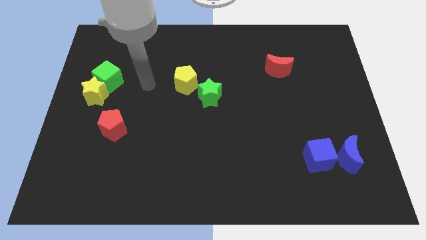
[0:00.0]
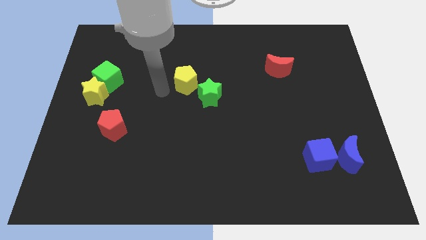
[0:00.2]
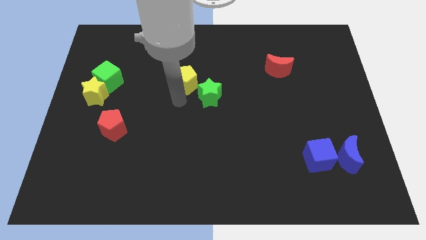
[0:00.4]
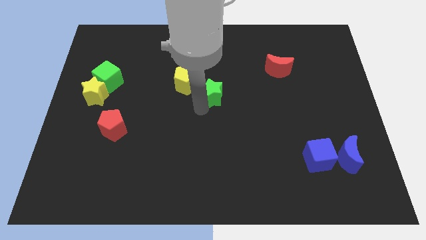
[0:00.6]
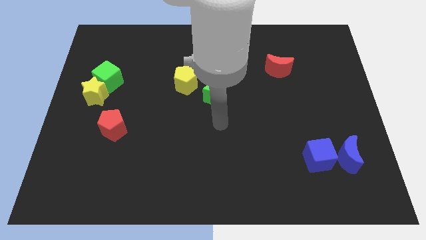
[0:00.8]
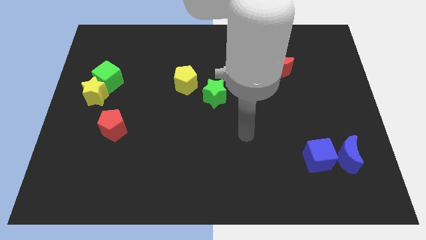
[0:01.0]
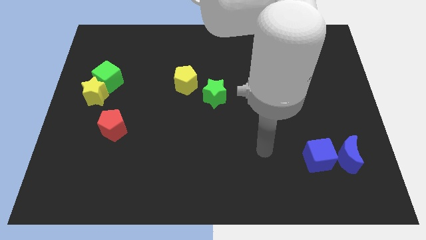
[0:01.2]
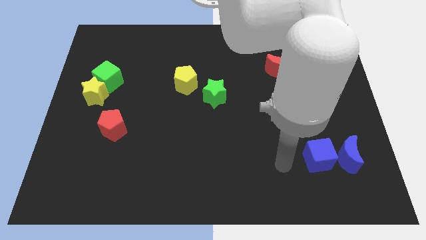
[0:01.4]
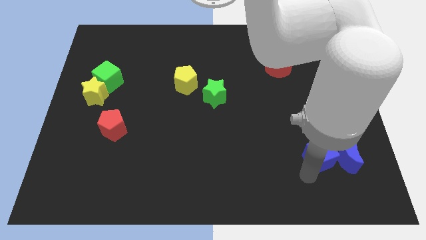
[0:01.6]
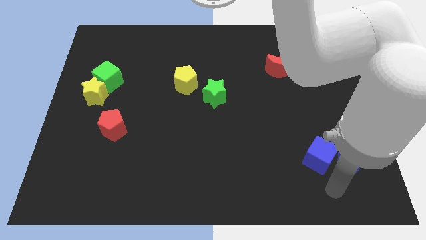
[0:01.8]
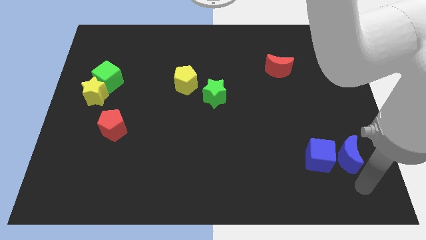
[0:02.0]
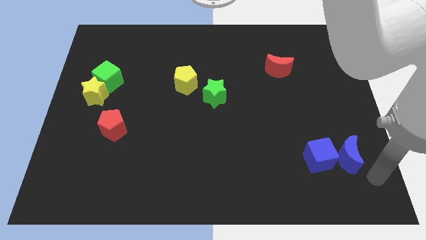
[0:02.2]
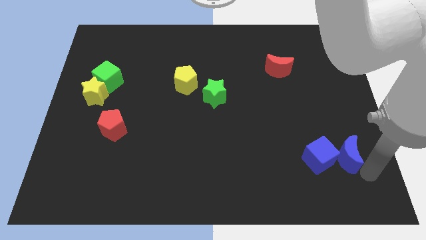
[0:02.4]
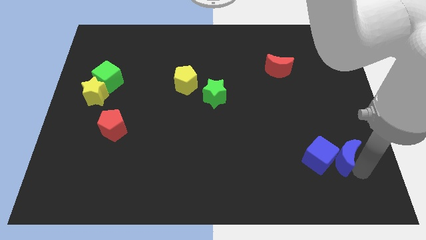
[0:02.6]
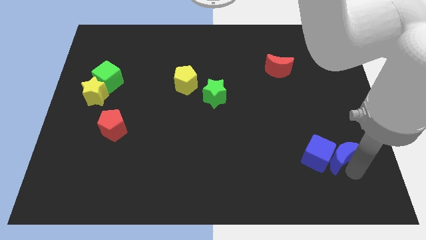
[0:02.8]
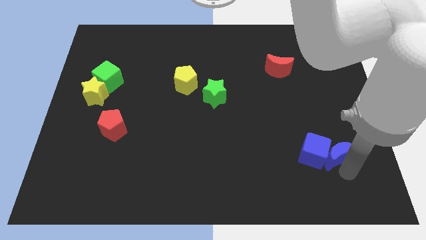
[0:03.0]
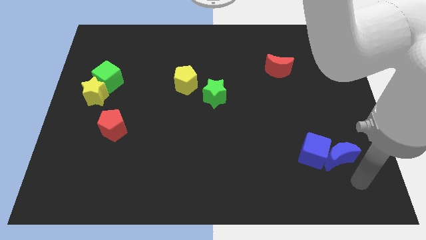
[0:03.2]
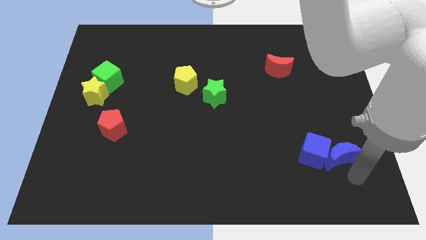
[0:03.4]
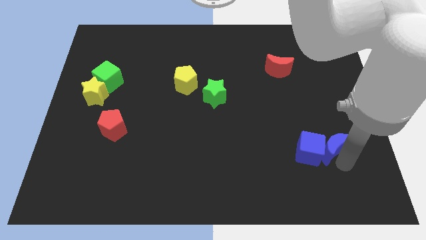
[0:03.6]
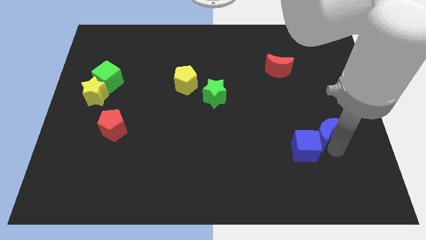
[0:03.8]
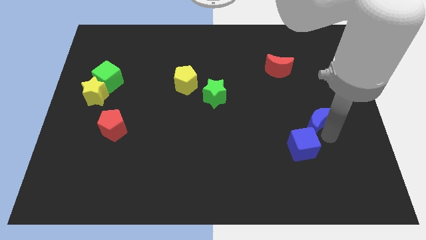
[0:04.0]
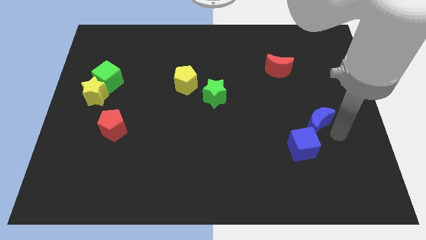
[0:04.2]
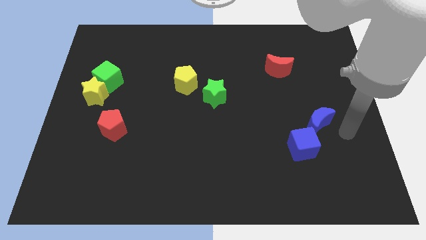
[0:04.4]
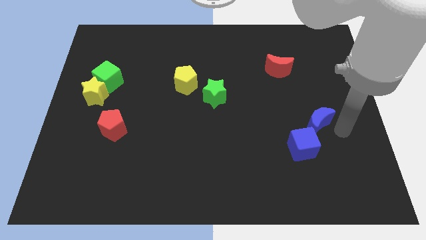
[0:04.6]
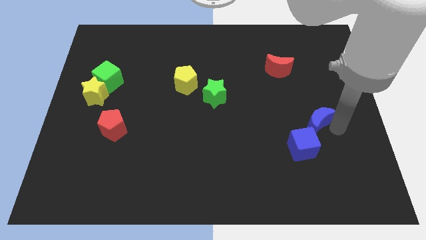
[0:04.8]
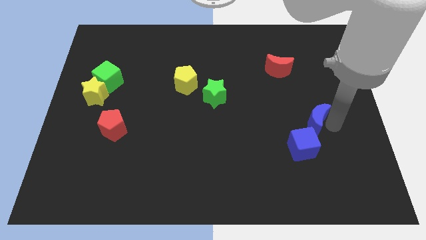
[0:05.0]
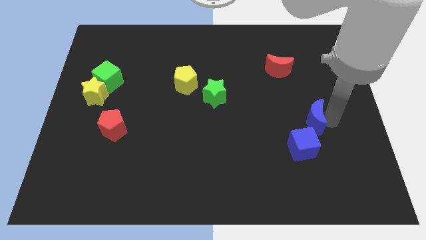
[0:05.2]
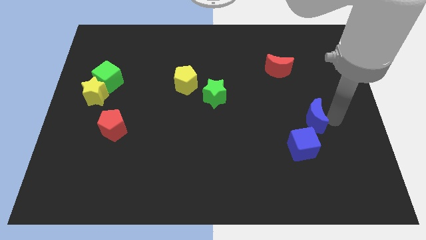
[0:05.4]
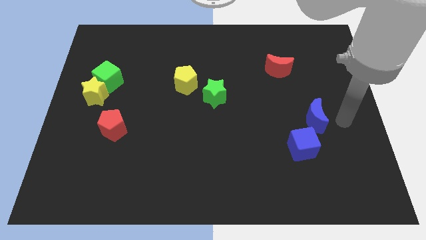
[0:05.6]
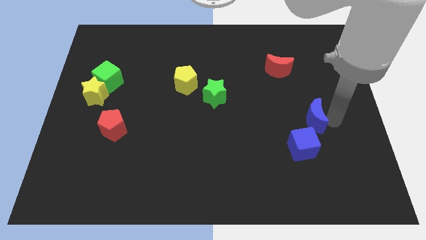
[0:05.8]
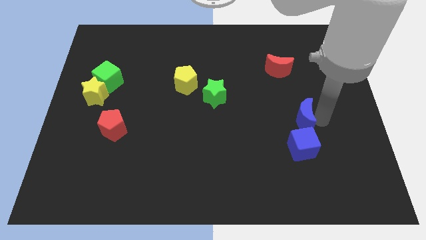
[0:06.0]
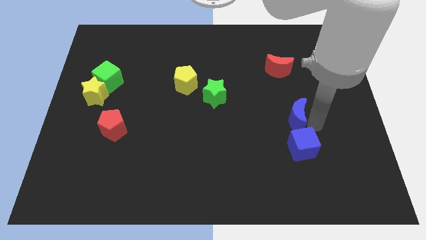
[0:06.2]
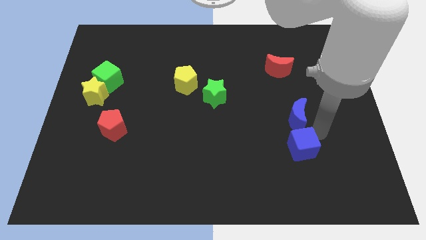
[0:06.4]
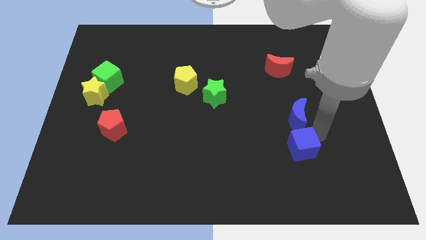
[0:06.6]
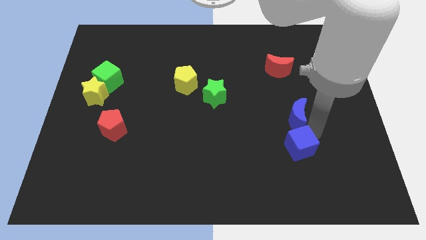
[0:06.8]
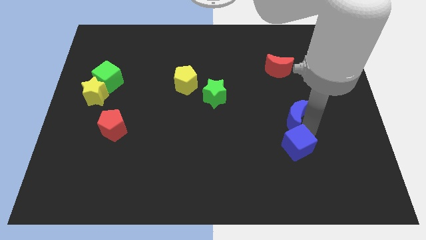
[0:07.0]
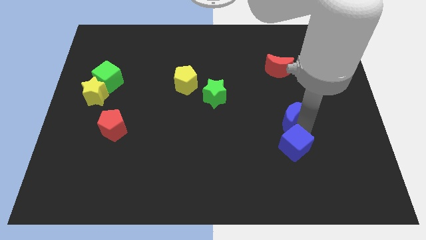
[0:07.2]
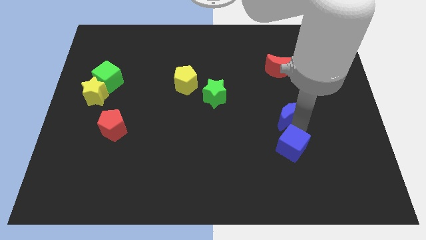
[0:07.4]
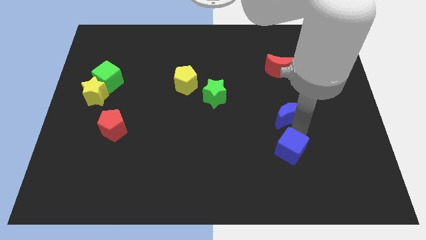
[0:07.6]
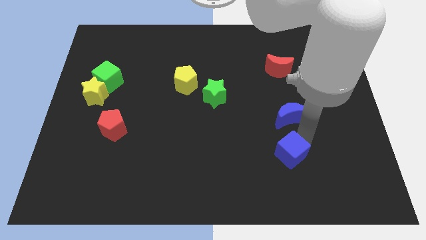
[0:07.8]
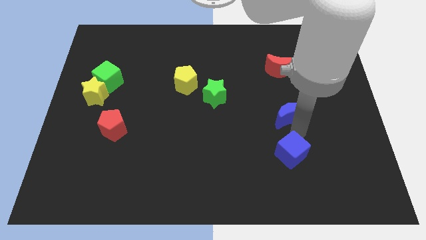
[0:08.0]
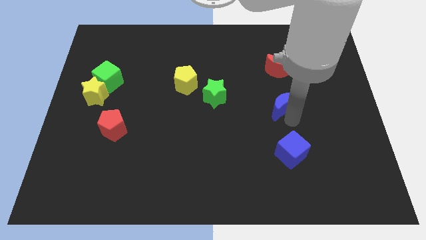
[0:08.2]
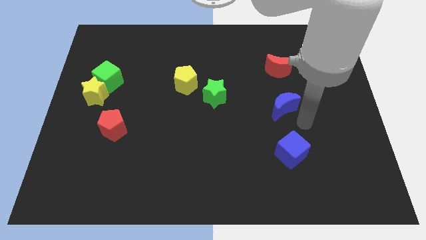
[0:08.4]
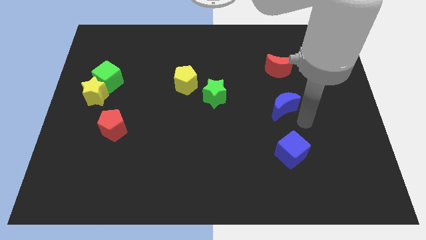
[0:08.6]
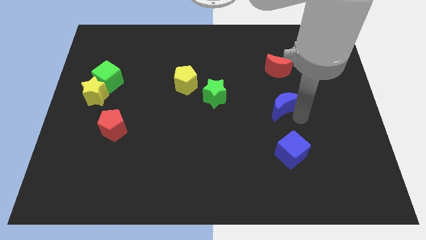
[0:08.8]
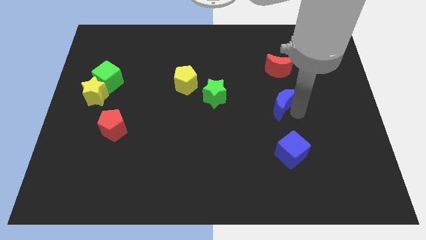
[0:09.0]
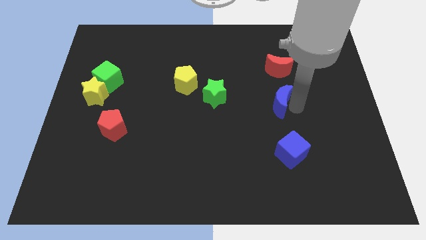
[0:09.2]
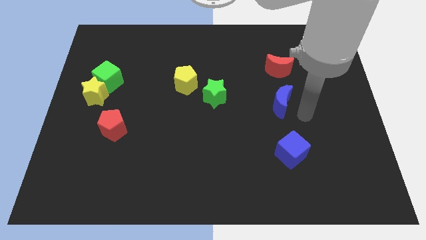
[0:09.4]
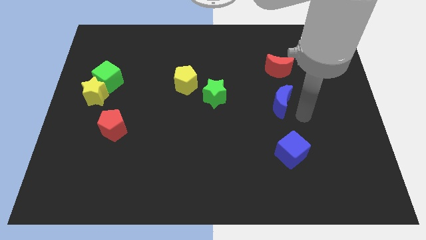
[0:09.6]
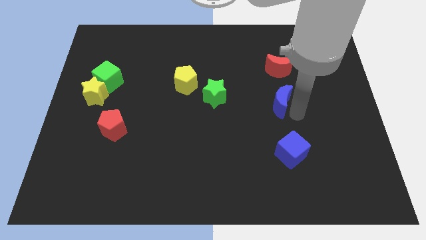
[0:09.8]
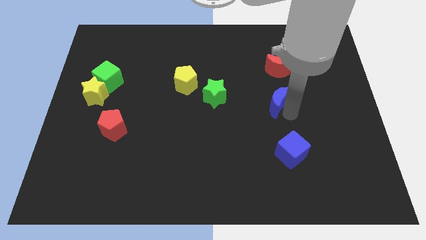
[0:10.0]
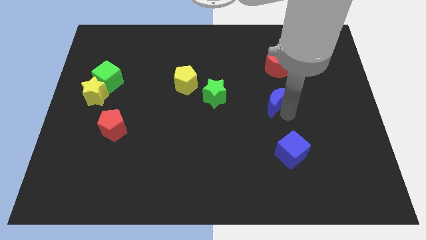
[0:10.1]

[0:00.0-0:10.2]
move the blue moon upwards and then to the left

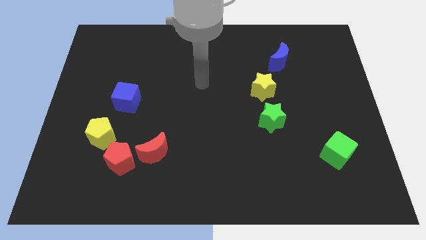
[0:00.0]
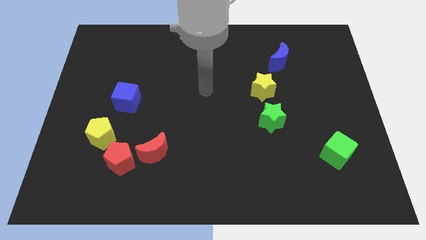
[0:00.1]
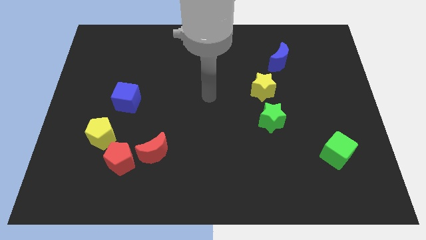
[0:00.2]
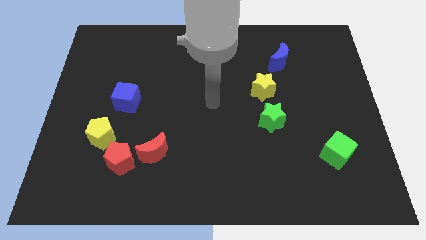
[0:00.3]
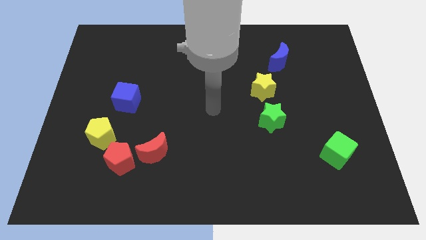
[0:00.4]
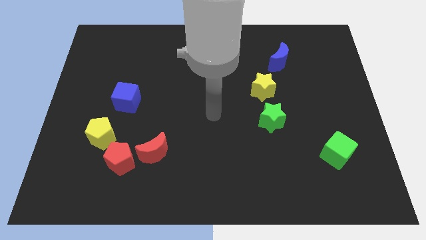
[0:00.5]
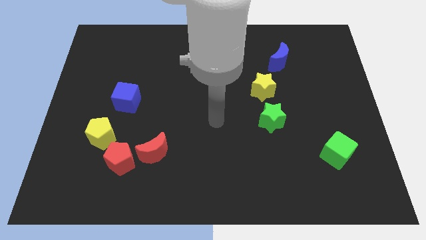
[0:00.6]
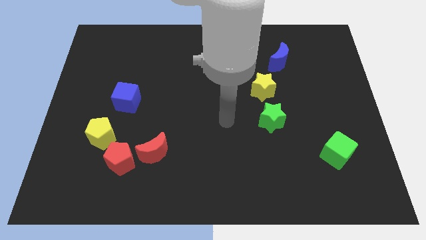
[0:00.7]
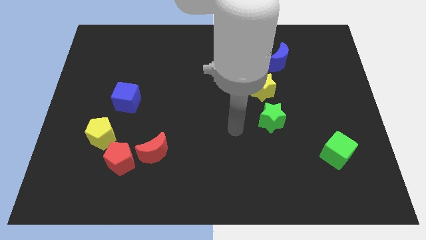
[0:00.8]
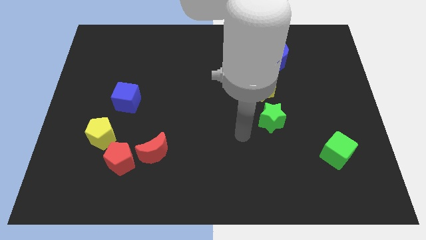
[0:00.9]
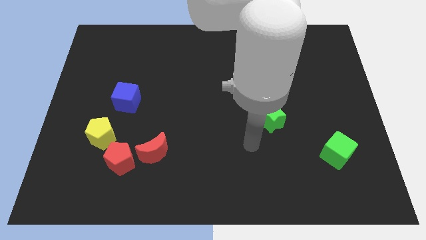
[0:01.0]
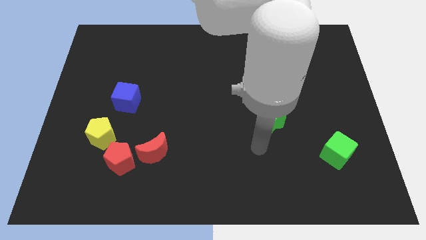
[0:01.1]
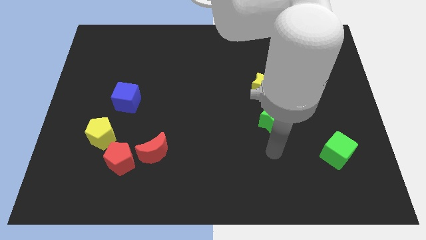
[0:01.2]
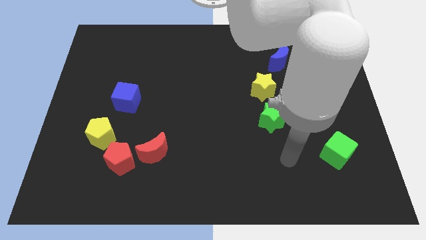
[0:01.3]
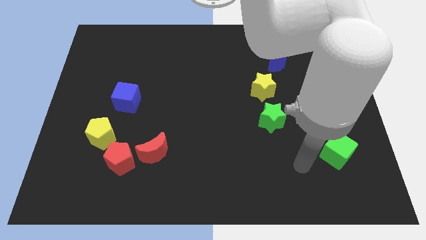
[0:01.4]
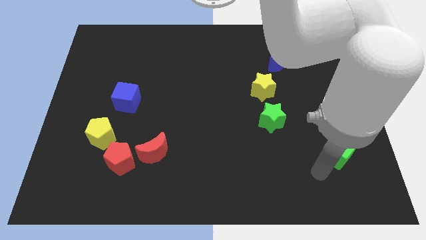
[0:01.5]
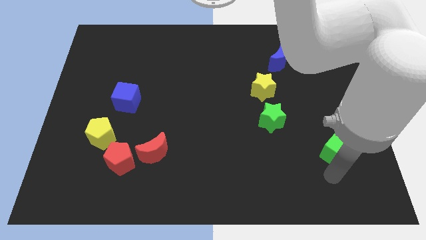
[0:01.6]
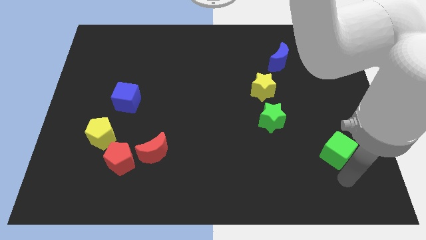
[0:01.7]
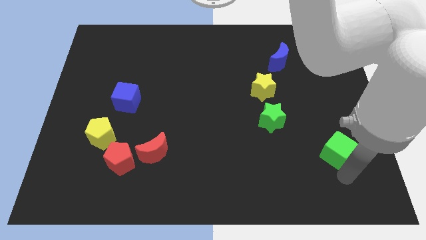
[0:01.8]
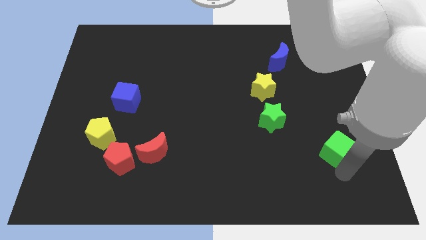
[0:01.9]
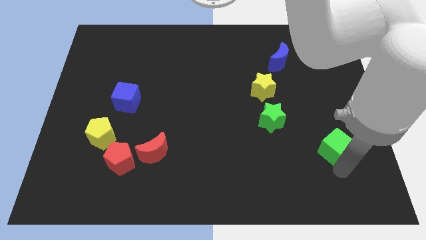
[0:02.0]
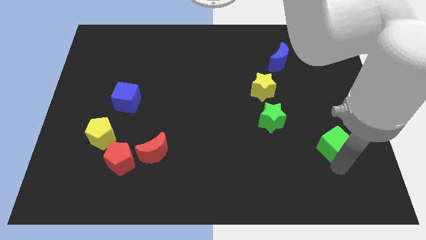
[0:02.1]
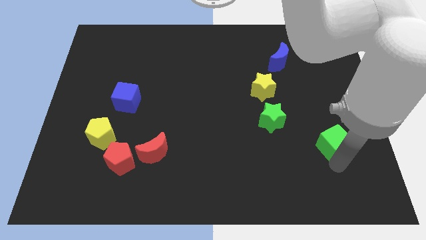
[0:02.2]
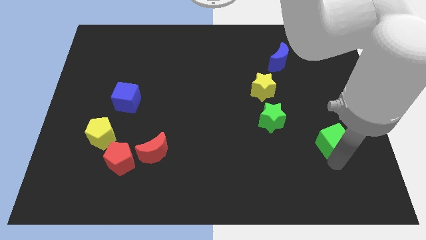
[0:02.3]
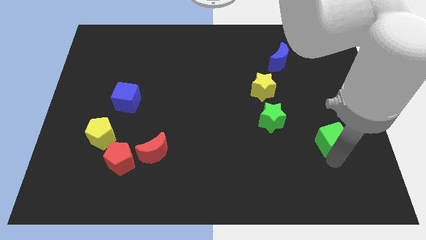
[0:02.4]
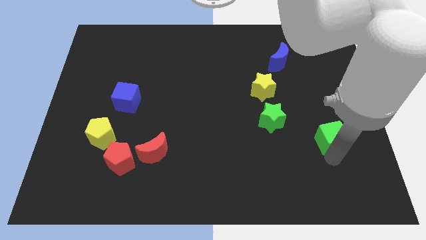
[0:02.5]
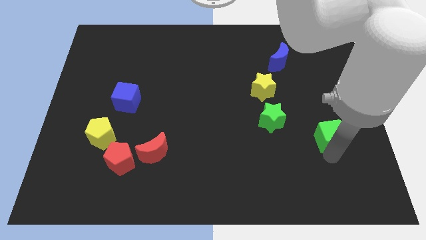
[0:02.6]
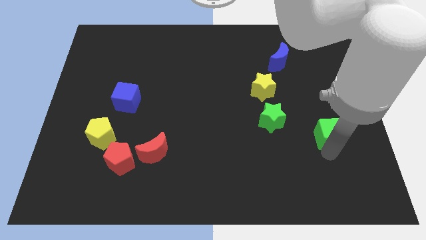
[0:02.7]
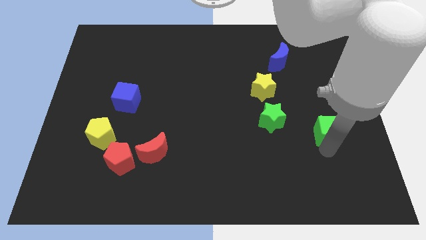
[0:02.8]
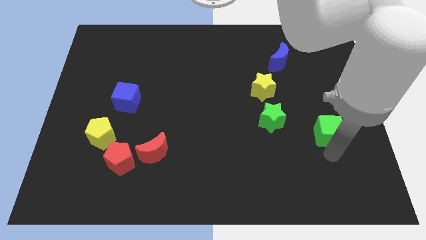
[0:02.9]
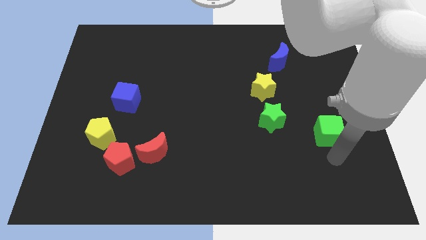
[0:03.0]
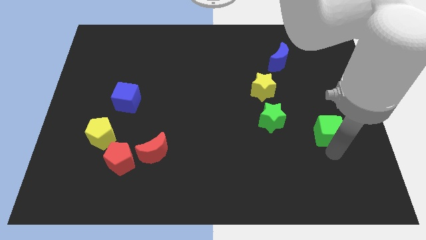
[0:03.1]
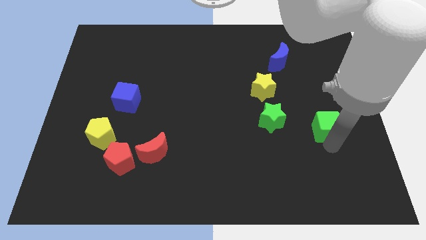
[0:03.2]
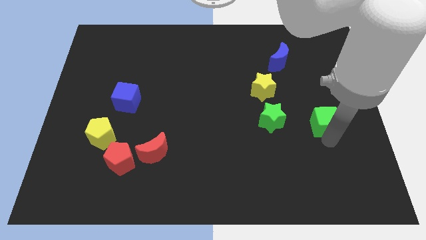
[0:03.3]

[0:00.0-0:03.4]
push the green cube upwards somewhat
